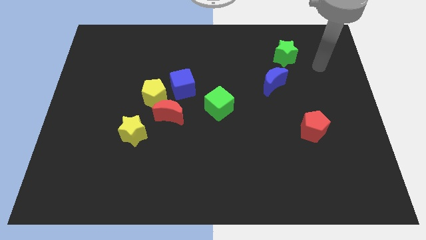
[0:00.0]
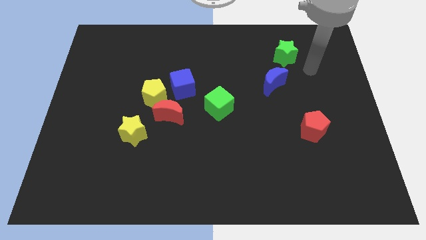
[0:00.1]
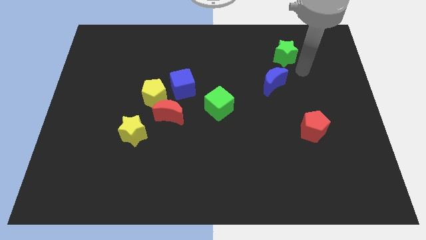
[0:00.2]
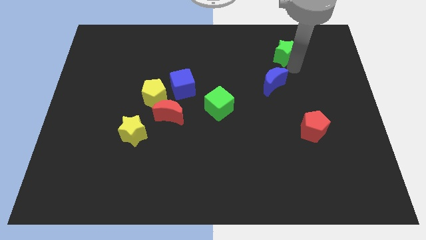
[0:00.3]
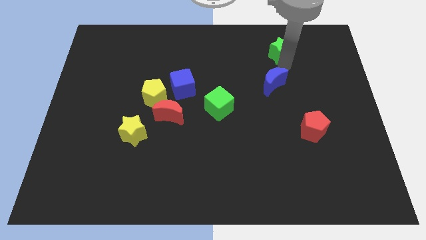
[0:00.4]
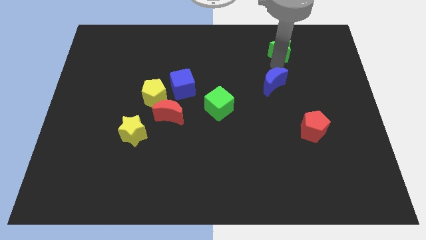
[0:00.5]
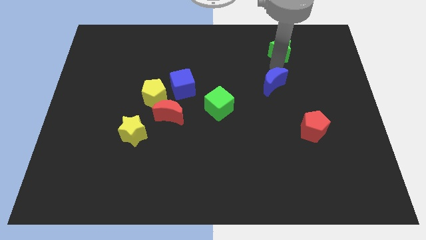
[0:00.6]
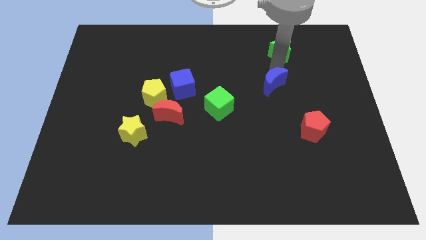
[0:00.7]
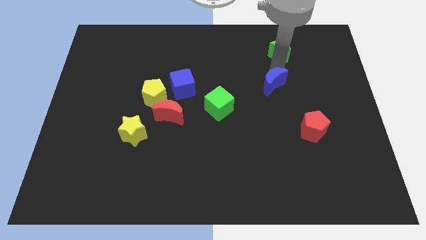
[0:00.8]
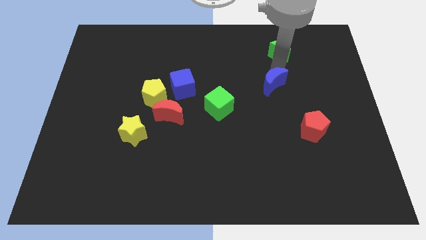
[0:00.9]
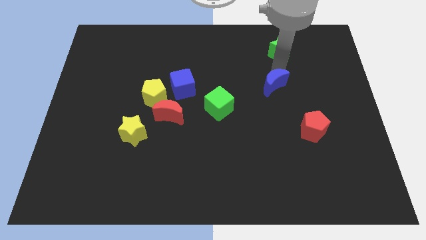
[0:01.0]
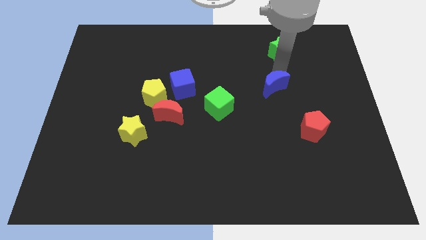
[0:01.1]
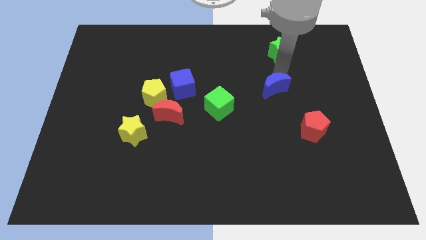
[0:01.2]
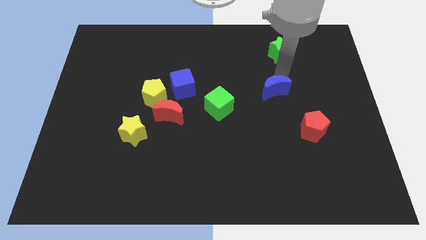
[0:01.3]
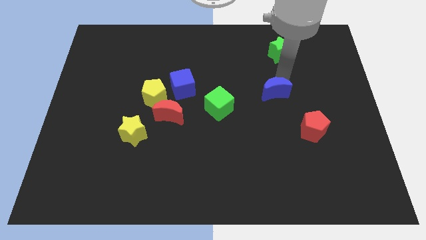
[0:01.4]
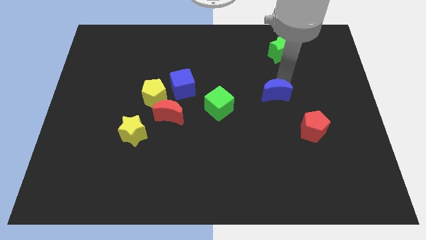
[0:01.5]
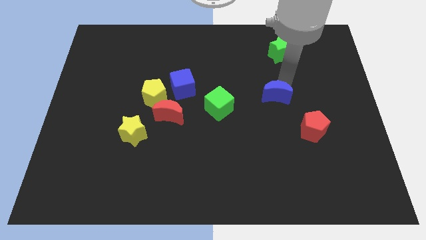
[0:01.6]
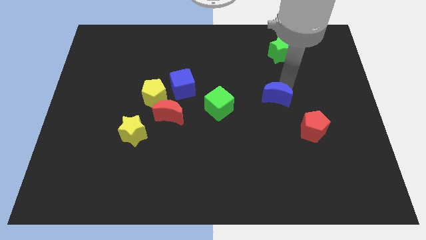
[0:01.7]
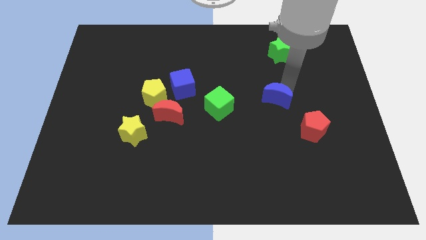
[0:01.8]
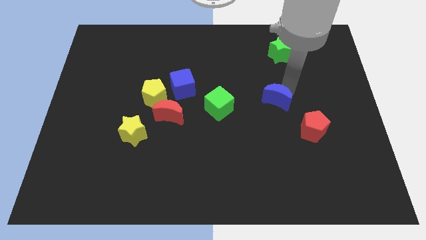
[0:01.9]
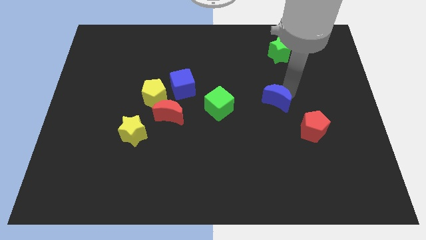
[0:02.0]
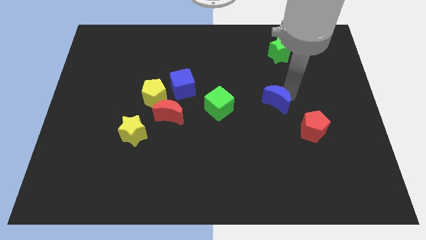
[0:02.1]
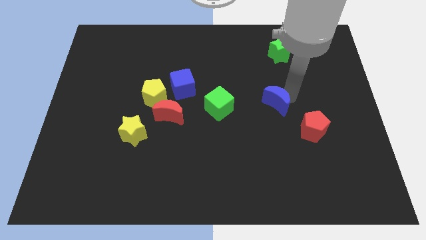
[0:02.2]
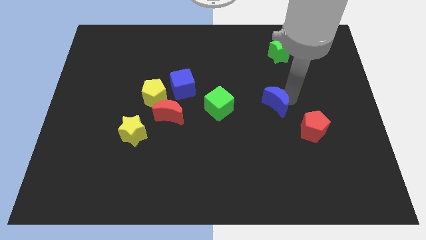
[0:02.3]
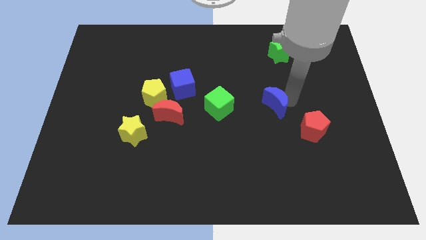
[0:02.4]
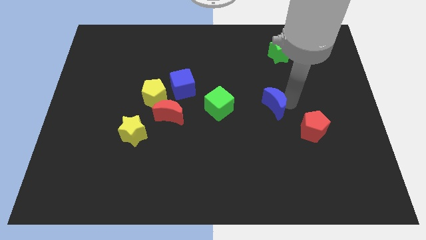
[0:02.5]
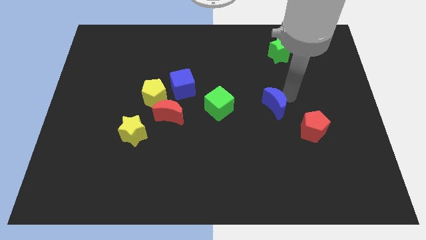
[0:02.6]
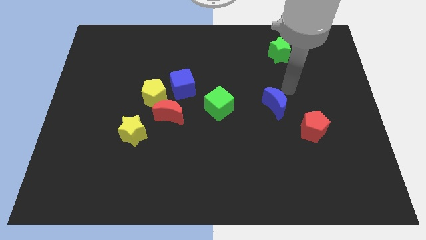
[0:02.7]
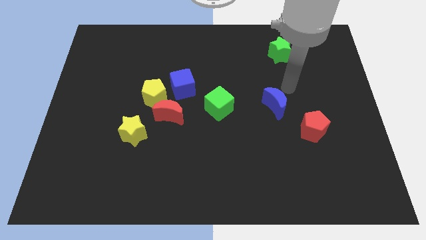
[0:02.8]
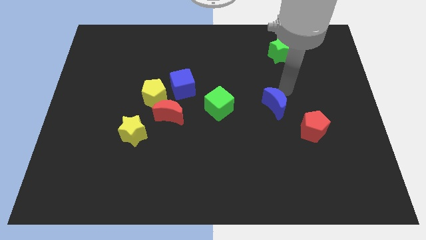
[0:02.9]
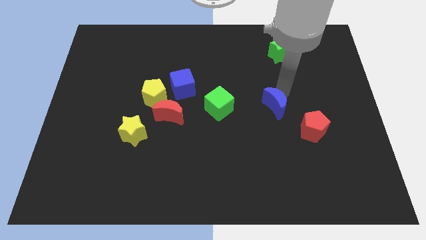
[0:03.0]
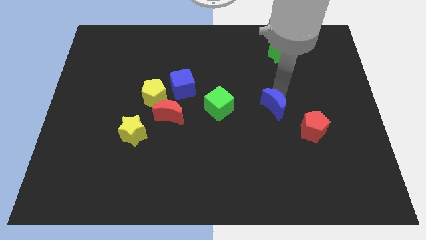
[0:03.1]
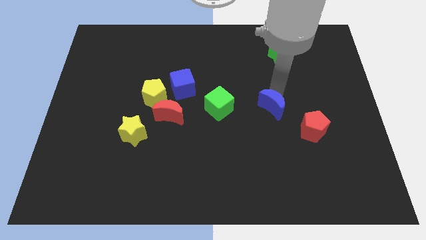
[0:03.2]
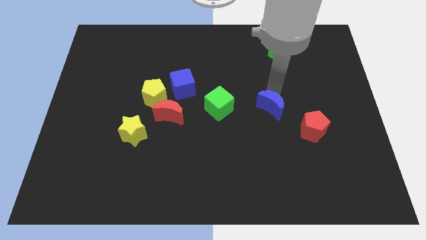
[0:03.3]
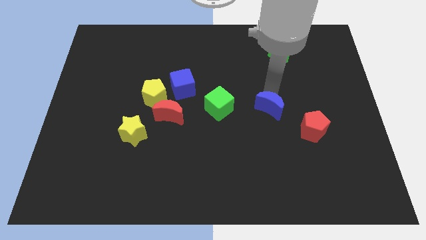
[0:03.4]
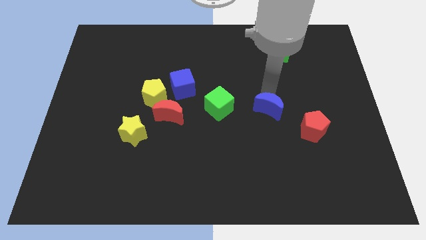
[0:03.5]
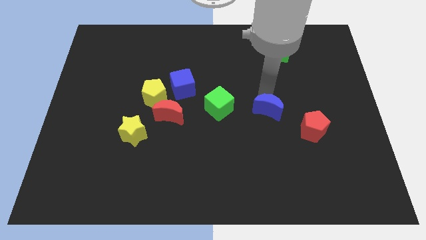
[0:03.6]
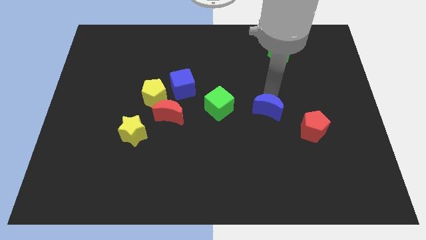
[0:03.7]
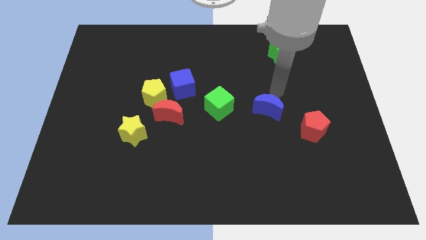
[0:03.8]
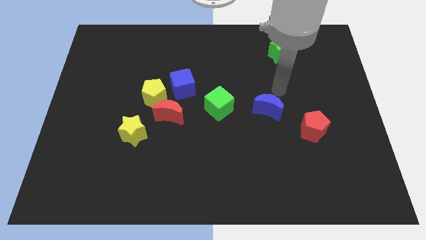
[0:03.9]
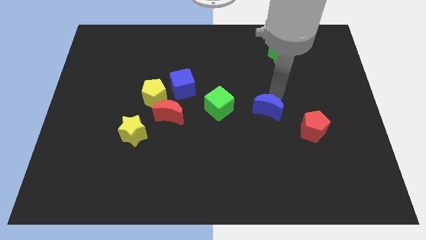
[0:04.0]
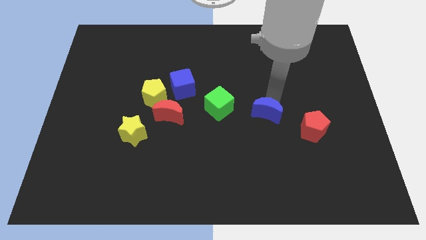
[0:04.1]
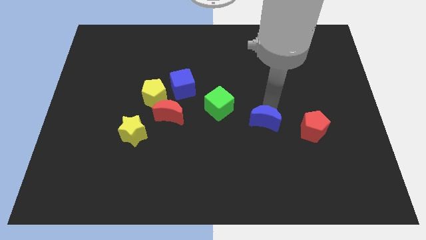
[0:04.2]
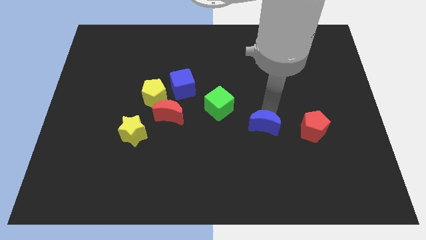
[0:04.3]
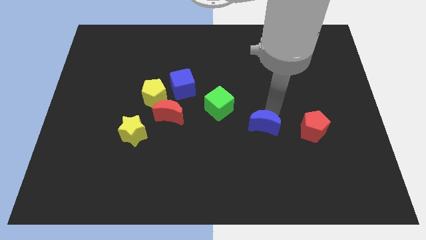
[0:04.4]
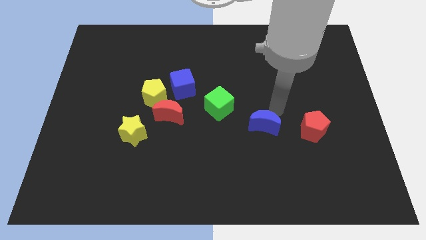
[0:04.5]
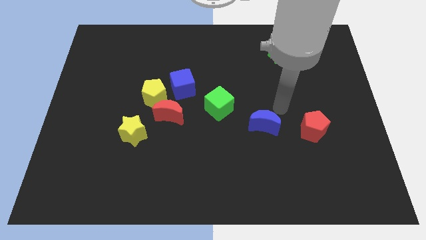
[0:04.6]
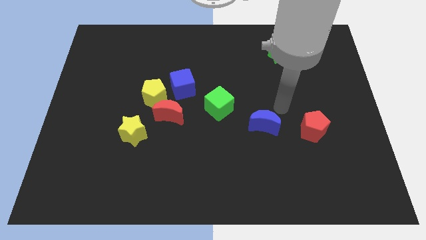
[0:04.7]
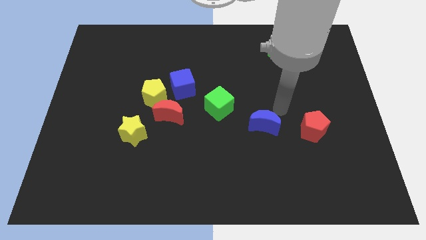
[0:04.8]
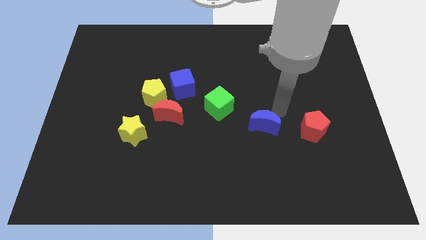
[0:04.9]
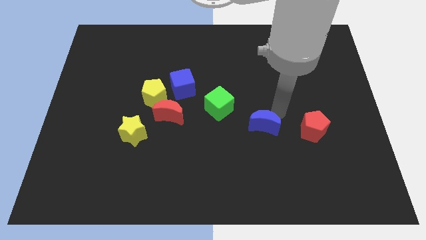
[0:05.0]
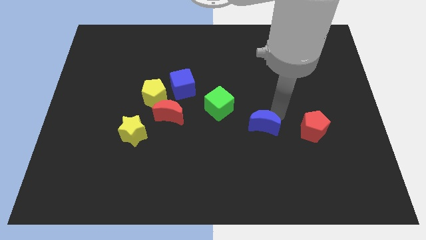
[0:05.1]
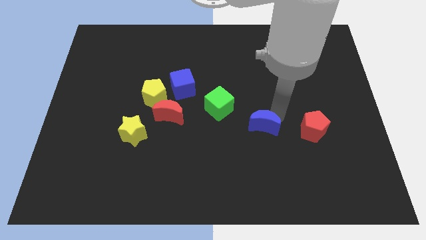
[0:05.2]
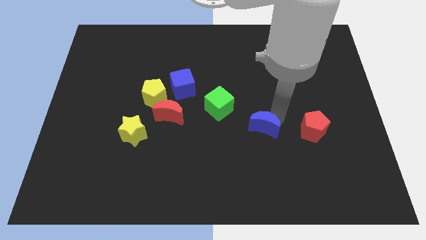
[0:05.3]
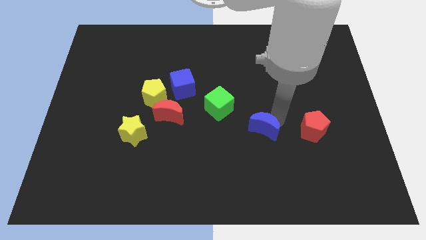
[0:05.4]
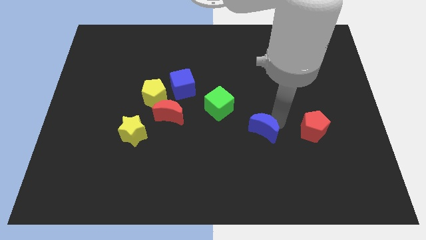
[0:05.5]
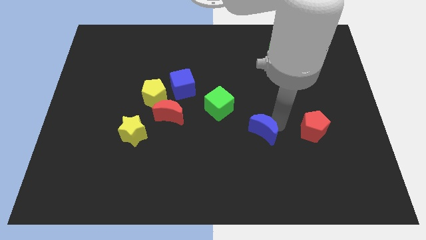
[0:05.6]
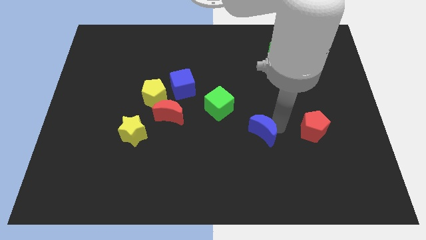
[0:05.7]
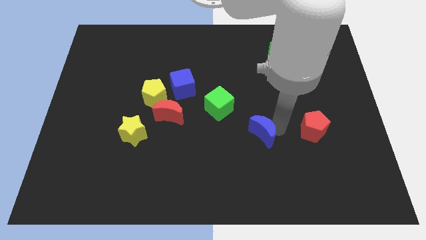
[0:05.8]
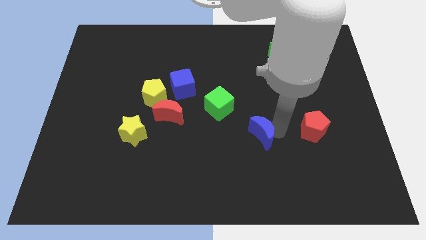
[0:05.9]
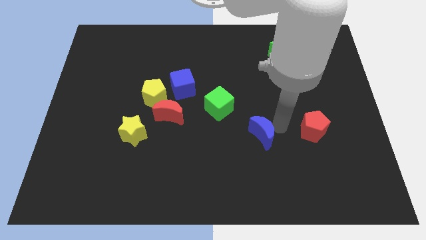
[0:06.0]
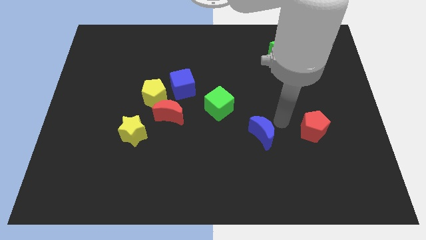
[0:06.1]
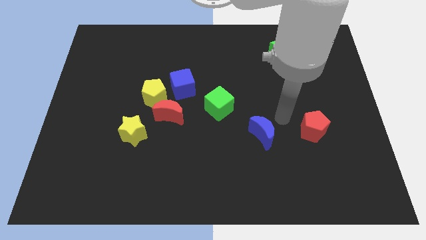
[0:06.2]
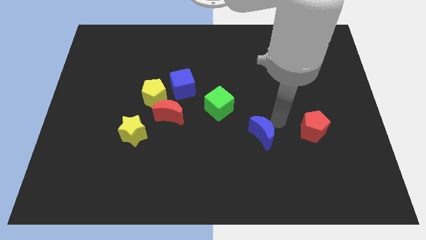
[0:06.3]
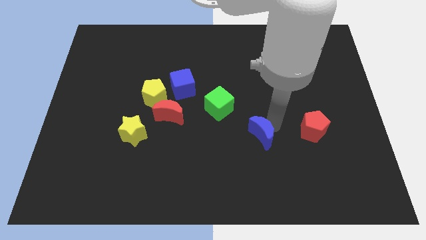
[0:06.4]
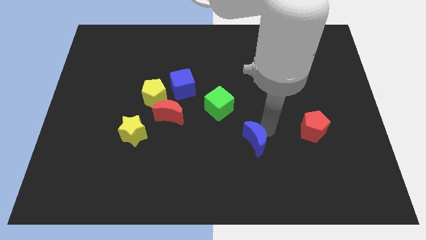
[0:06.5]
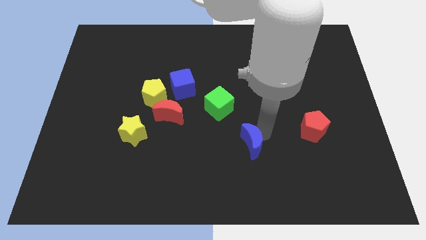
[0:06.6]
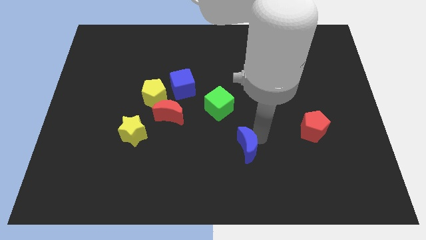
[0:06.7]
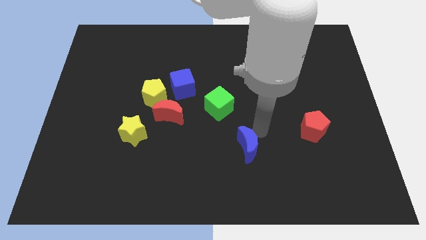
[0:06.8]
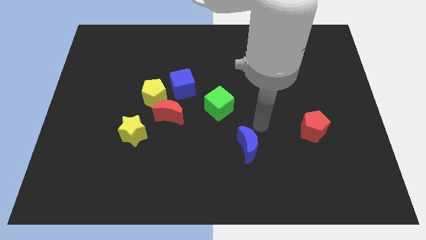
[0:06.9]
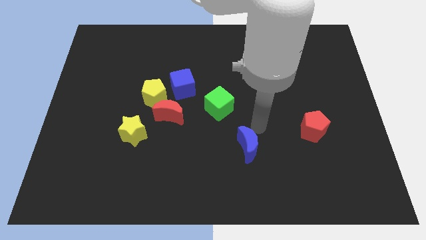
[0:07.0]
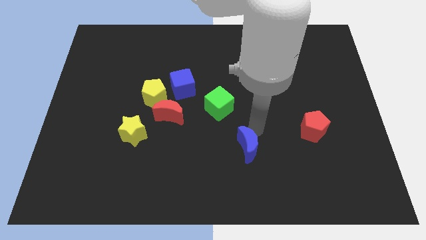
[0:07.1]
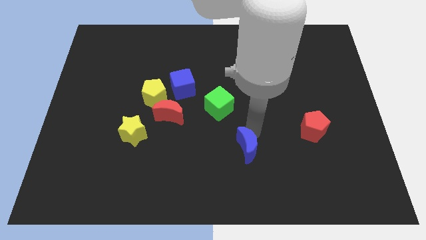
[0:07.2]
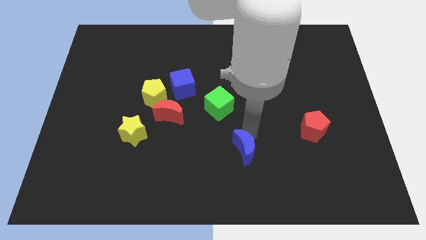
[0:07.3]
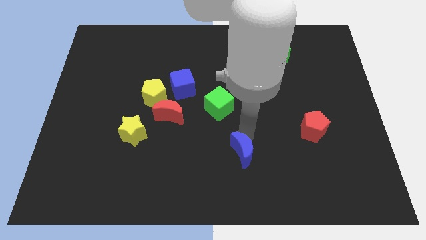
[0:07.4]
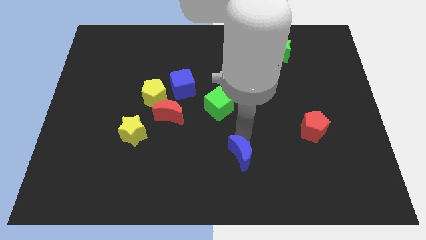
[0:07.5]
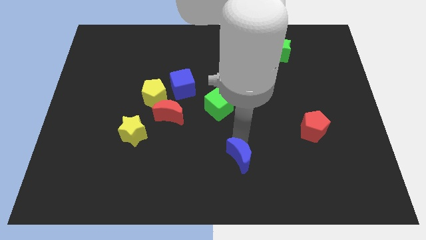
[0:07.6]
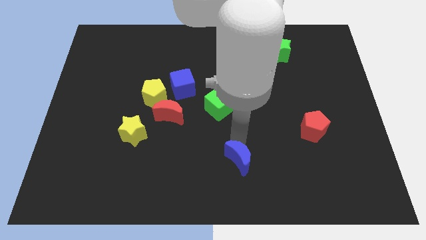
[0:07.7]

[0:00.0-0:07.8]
slide the blue moon to the bottom side
